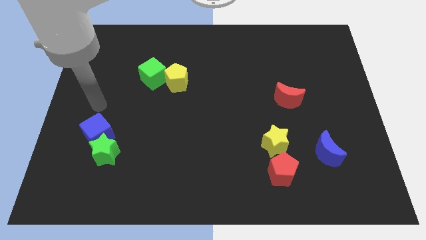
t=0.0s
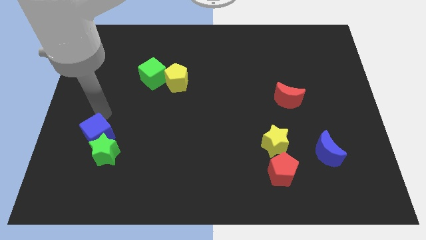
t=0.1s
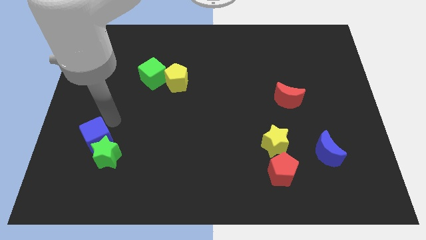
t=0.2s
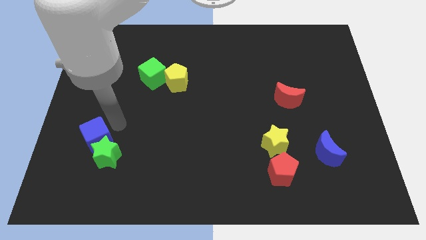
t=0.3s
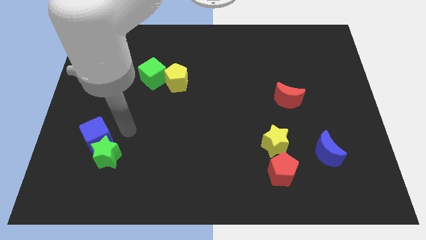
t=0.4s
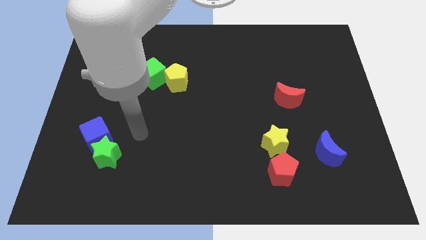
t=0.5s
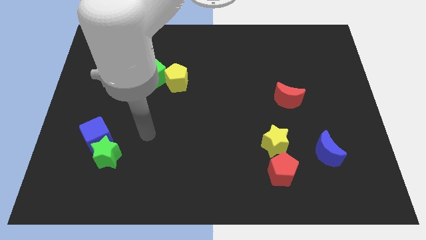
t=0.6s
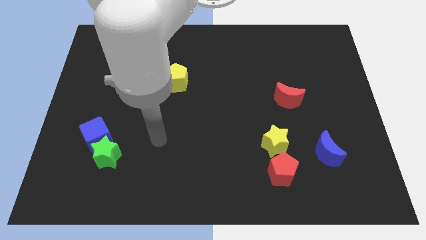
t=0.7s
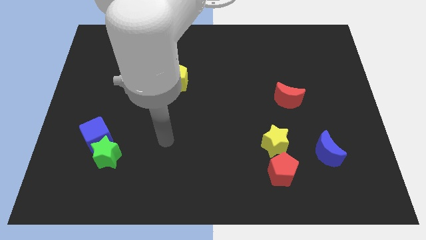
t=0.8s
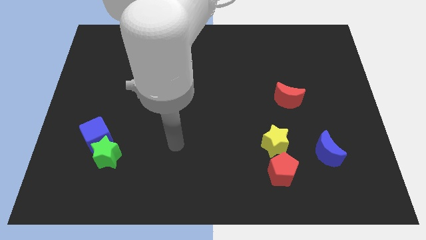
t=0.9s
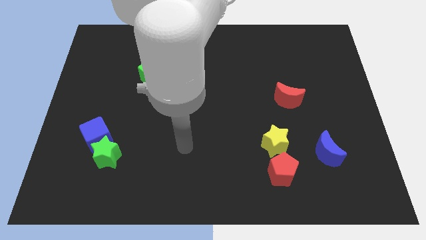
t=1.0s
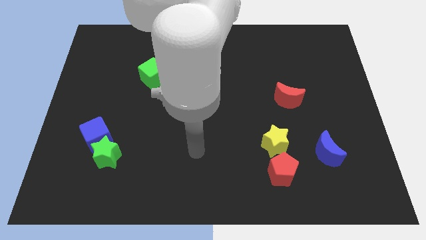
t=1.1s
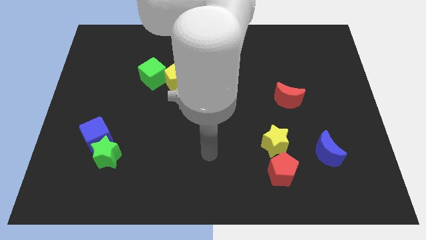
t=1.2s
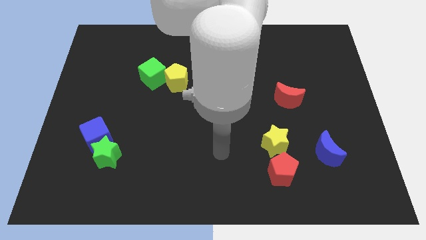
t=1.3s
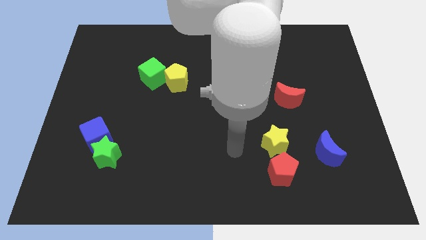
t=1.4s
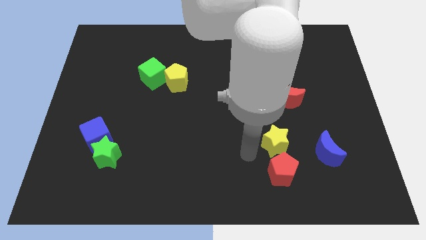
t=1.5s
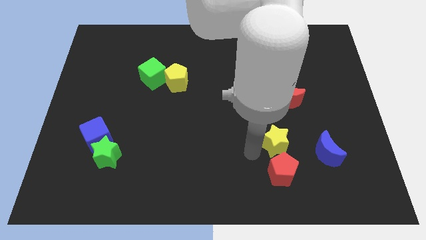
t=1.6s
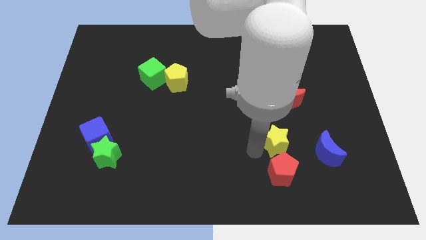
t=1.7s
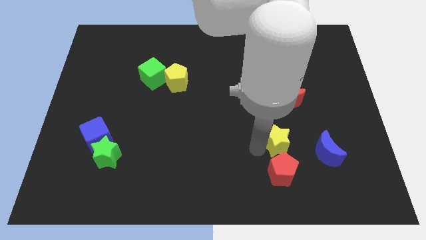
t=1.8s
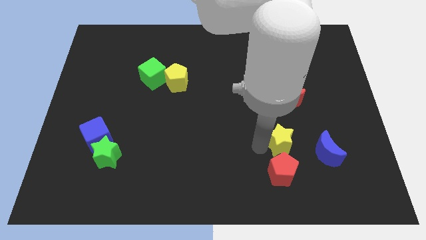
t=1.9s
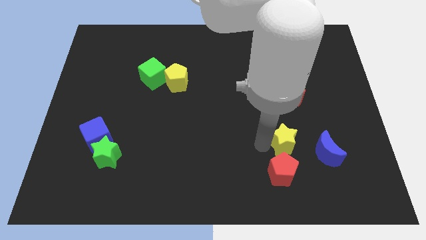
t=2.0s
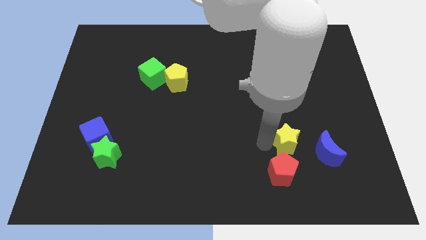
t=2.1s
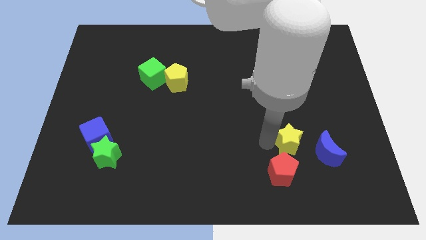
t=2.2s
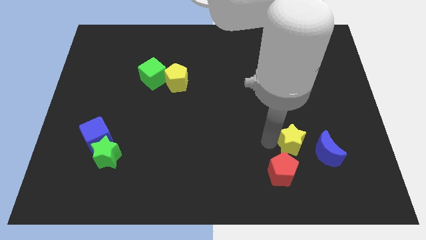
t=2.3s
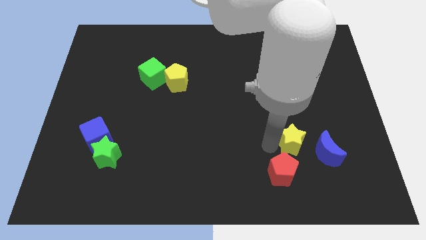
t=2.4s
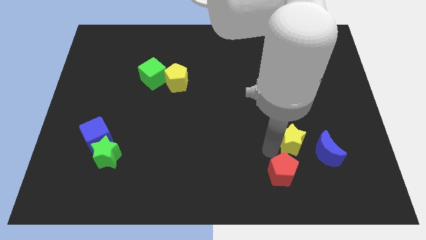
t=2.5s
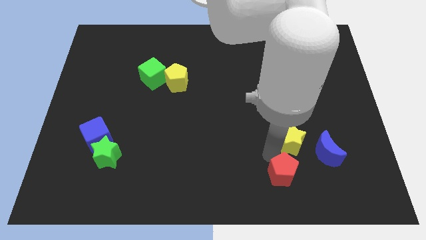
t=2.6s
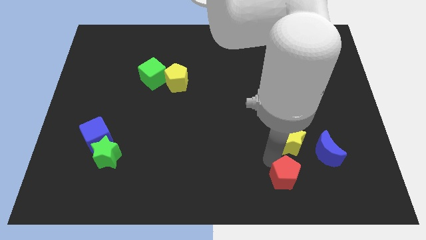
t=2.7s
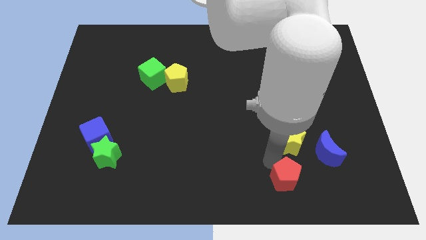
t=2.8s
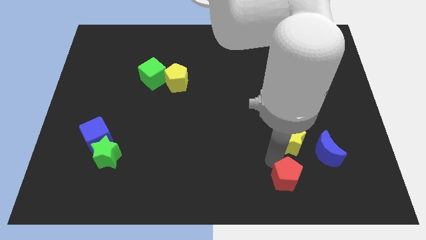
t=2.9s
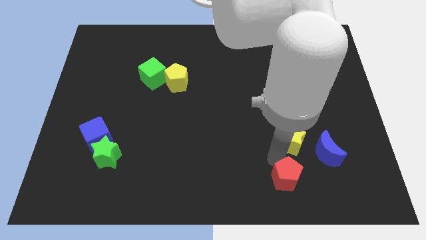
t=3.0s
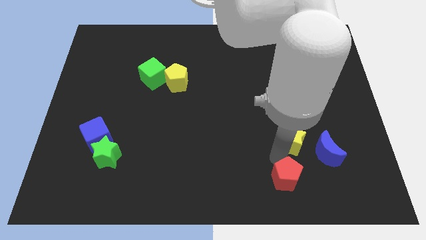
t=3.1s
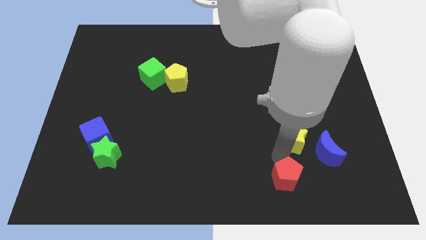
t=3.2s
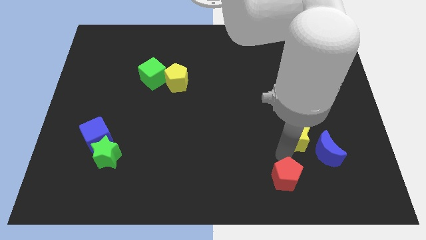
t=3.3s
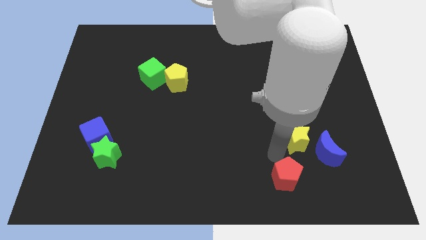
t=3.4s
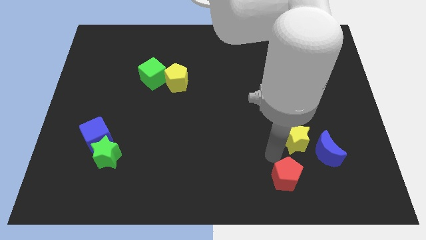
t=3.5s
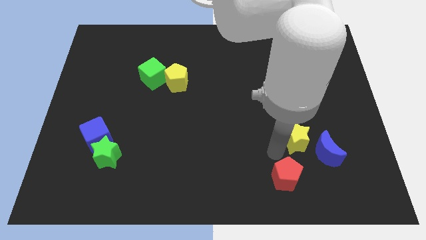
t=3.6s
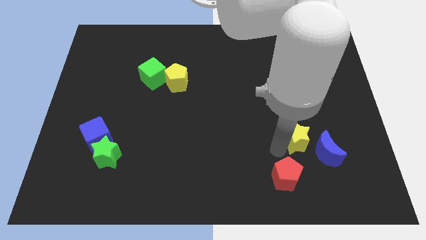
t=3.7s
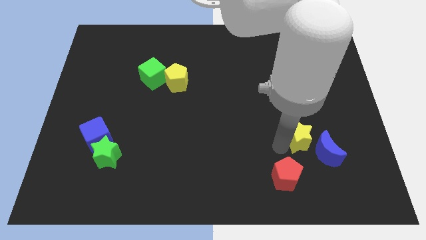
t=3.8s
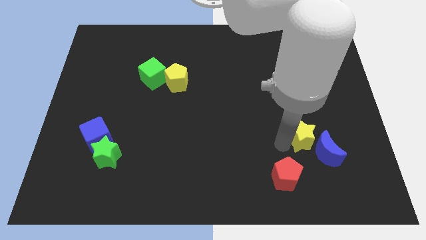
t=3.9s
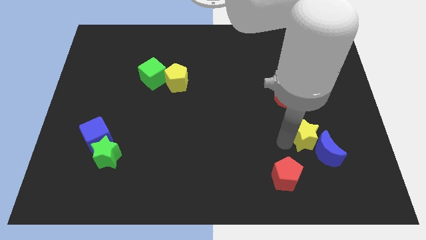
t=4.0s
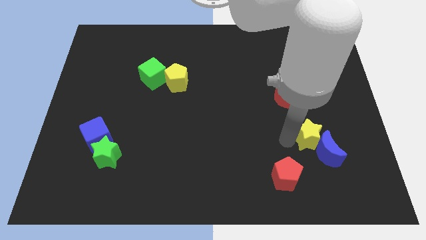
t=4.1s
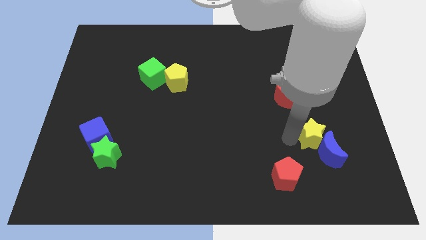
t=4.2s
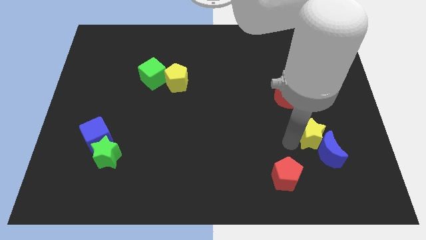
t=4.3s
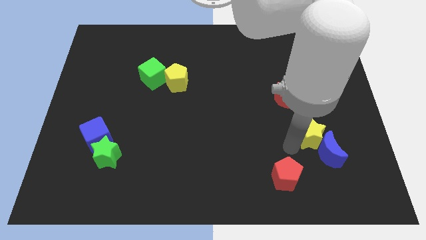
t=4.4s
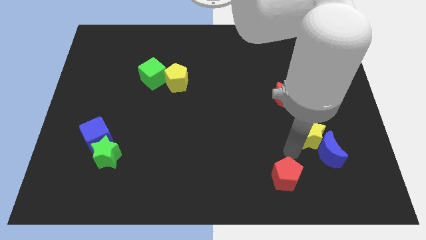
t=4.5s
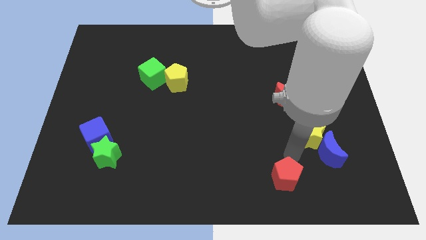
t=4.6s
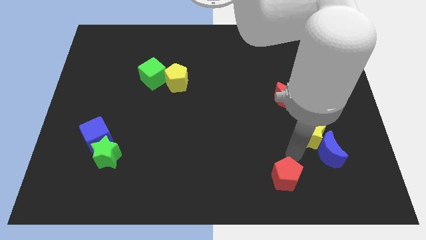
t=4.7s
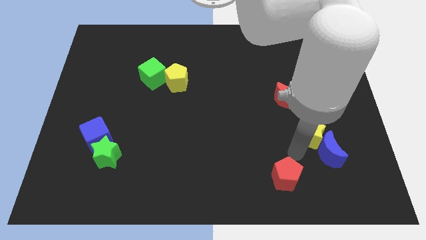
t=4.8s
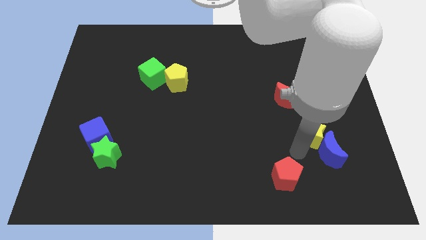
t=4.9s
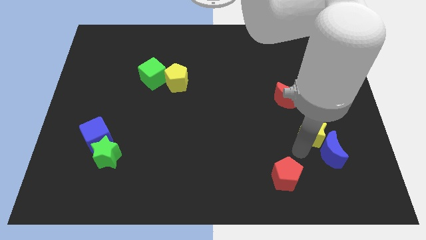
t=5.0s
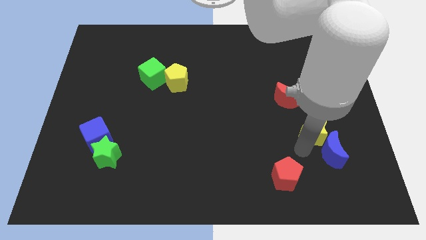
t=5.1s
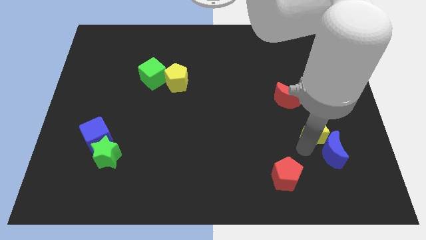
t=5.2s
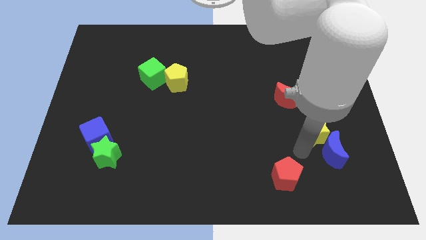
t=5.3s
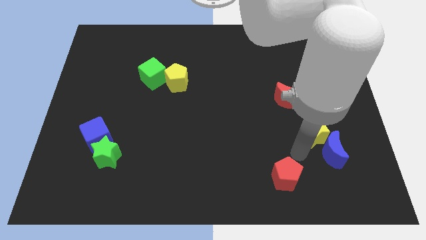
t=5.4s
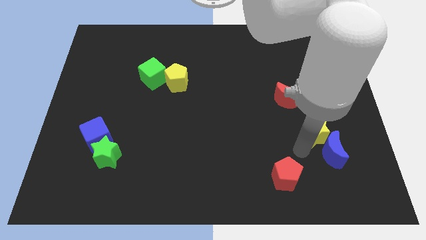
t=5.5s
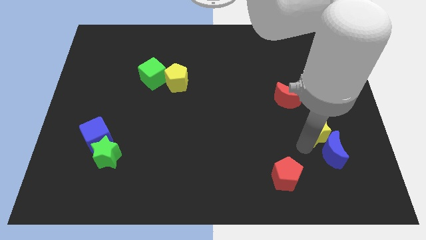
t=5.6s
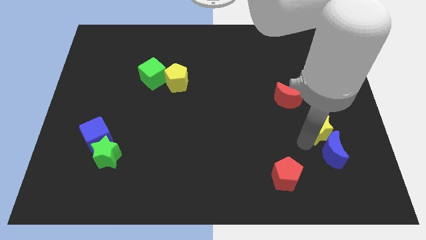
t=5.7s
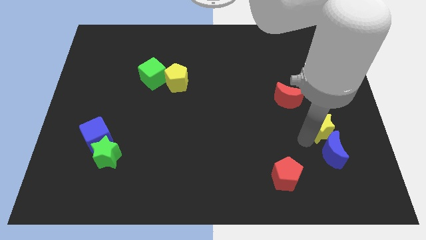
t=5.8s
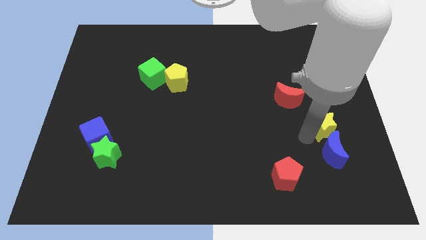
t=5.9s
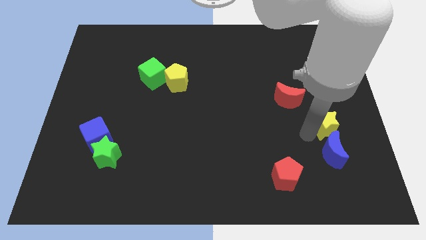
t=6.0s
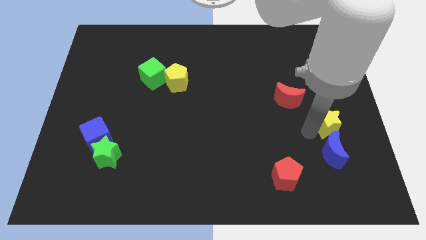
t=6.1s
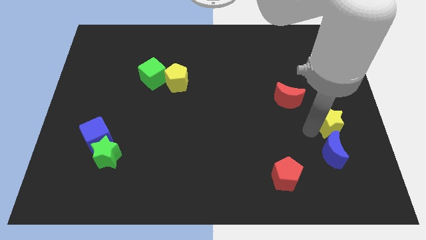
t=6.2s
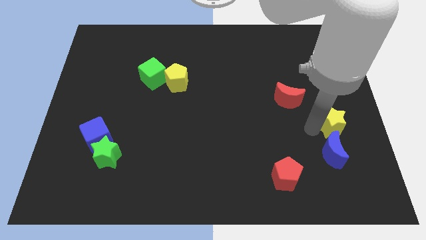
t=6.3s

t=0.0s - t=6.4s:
push the yellow star to the right side of the board

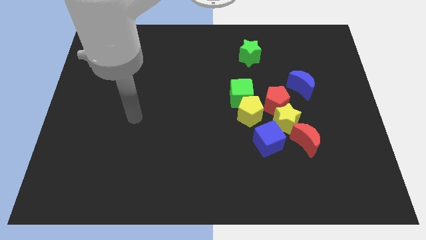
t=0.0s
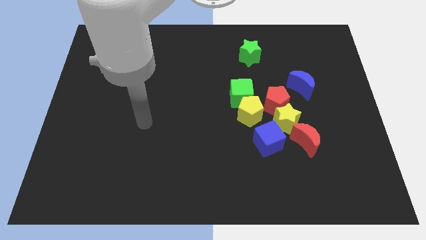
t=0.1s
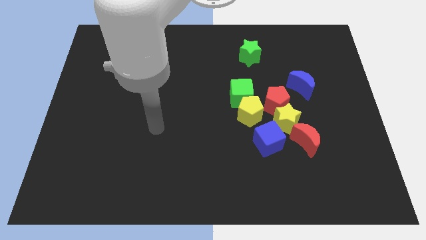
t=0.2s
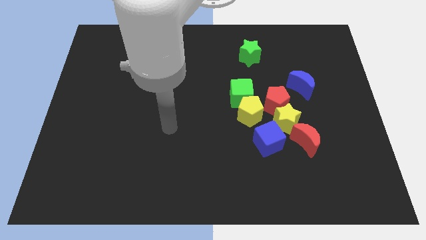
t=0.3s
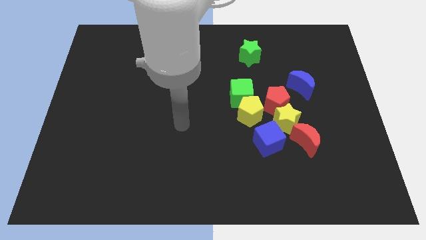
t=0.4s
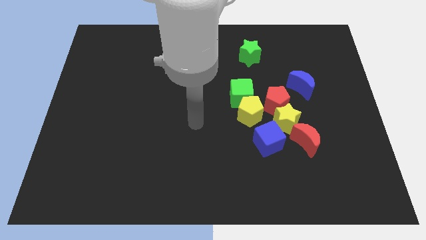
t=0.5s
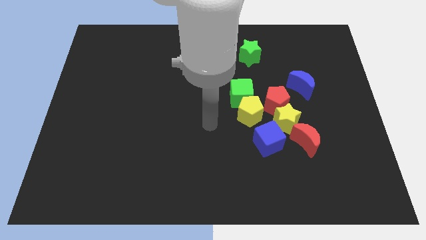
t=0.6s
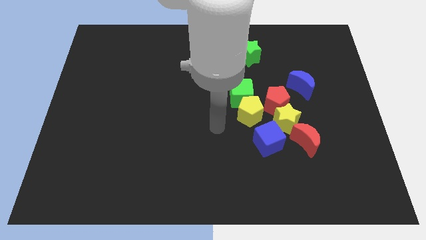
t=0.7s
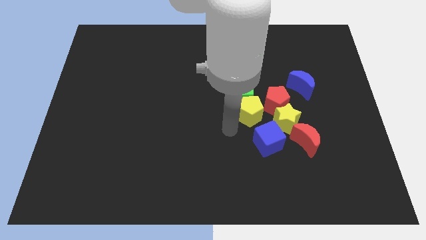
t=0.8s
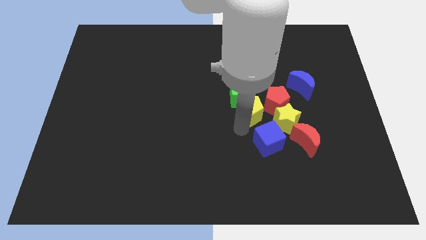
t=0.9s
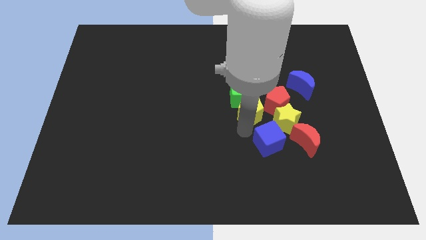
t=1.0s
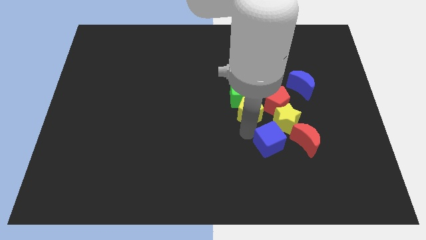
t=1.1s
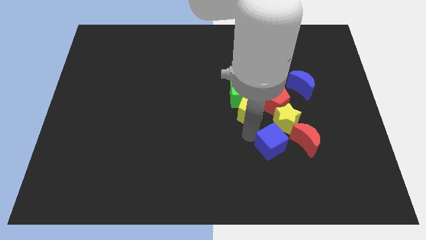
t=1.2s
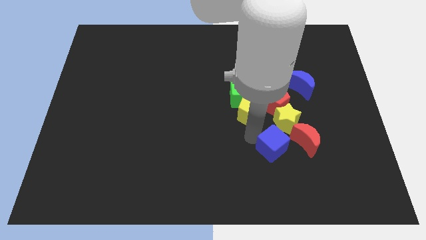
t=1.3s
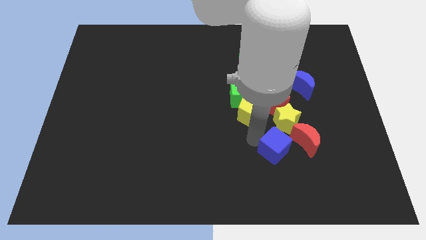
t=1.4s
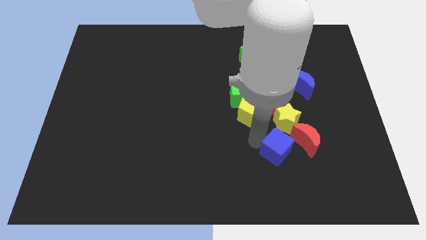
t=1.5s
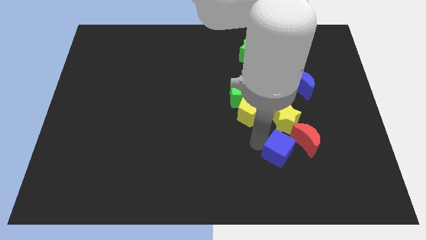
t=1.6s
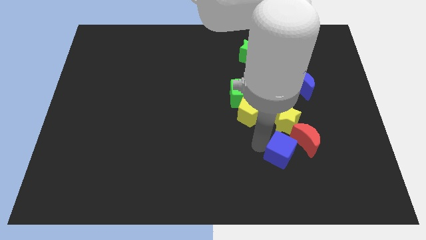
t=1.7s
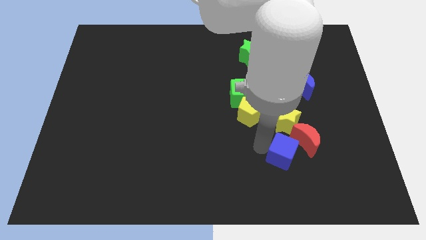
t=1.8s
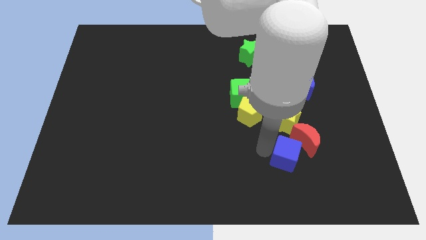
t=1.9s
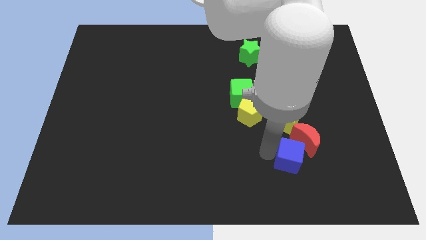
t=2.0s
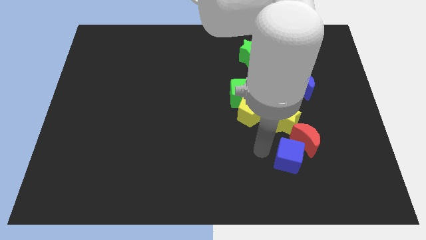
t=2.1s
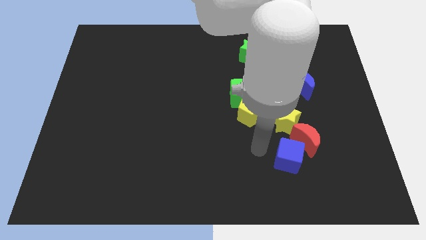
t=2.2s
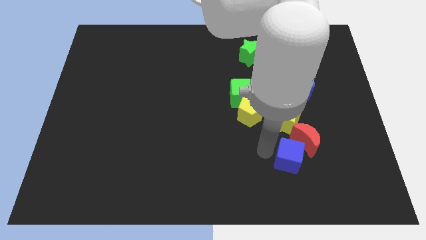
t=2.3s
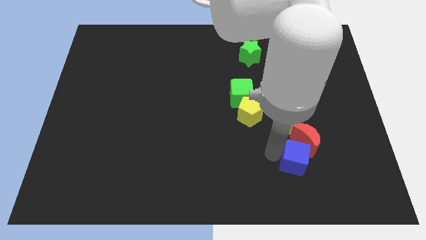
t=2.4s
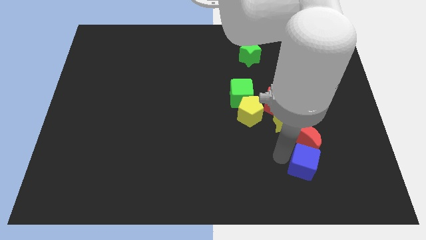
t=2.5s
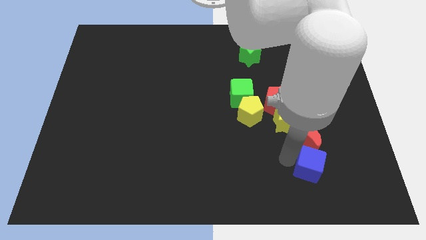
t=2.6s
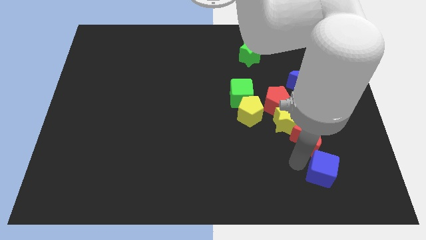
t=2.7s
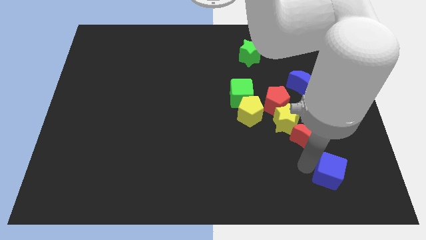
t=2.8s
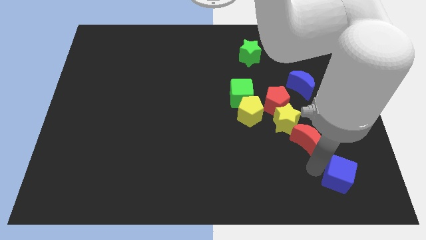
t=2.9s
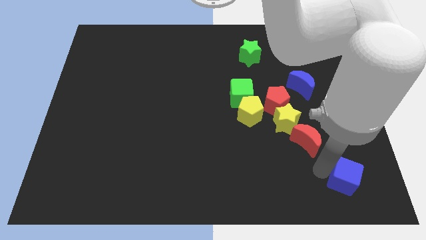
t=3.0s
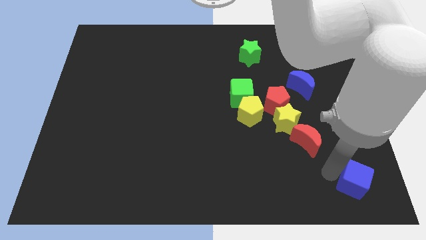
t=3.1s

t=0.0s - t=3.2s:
put the blue cube to the bottom right
